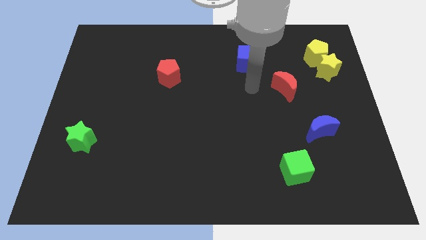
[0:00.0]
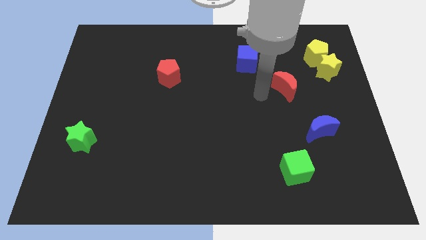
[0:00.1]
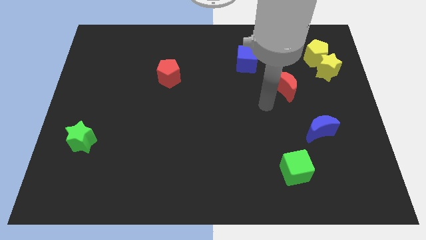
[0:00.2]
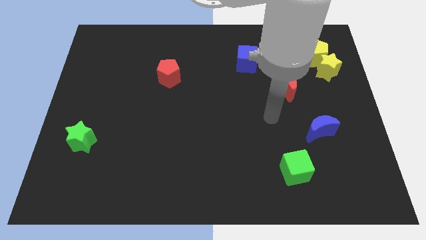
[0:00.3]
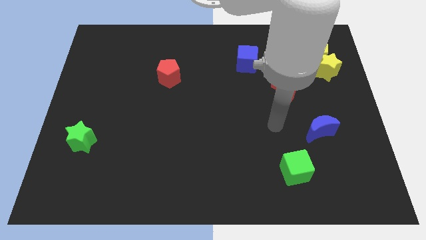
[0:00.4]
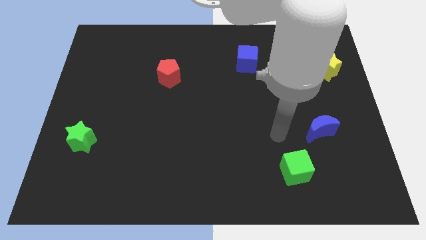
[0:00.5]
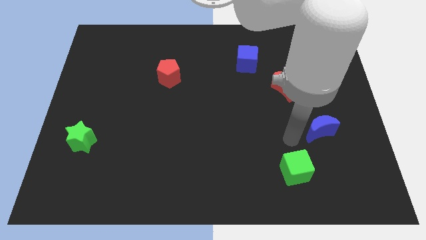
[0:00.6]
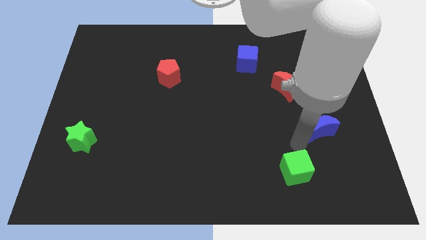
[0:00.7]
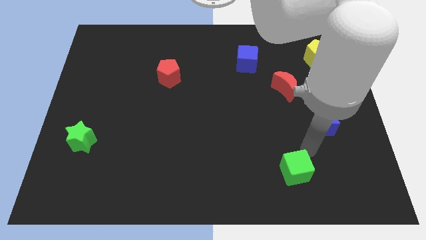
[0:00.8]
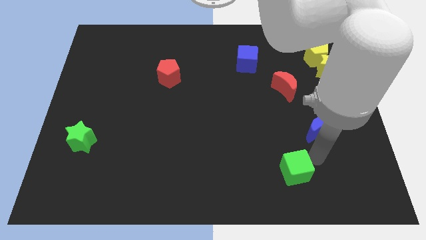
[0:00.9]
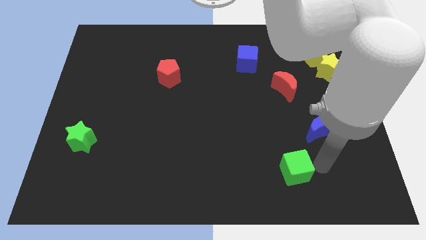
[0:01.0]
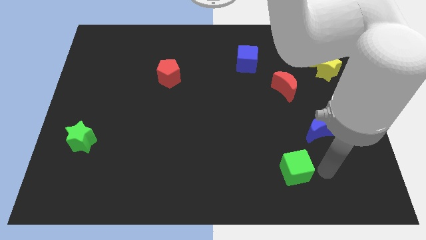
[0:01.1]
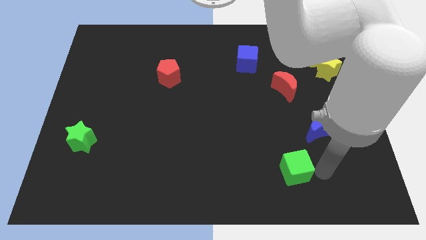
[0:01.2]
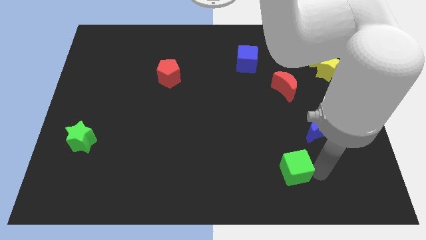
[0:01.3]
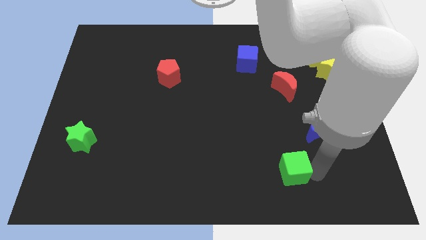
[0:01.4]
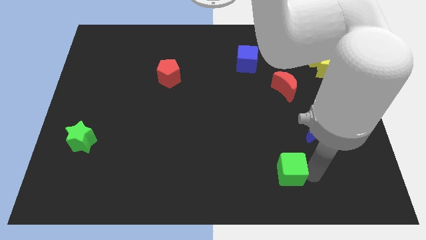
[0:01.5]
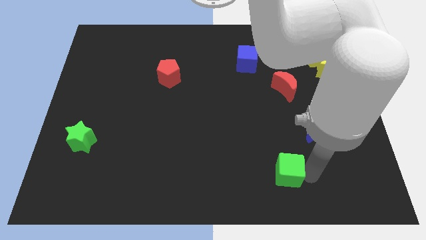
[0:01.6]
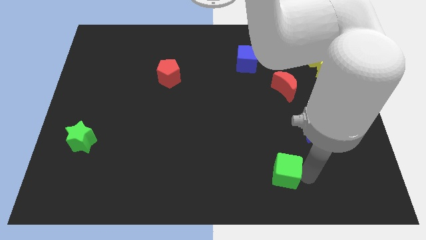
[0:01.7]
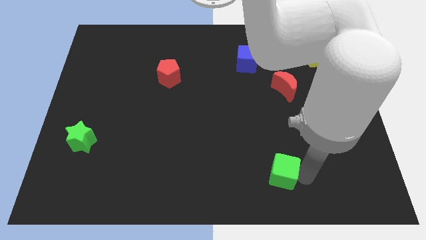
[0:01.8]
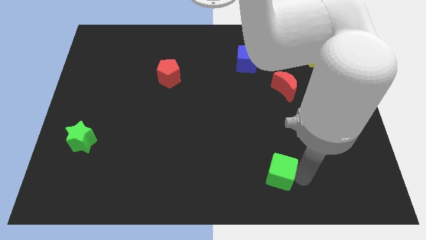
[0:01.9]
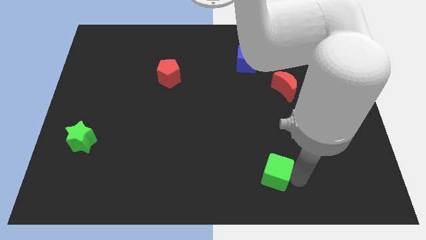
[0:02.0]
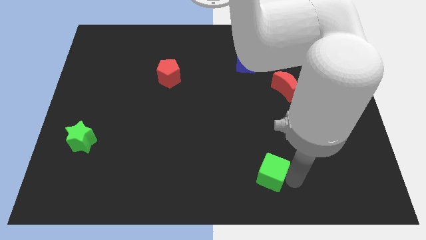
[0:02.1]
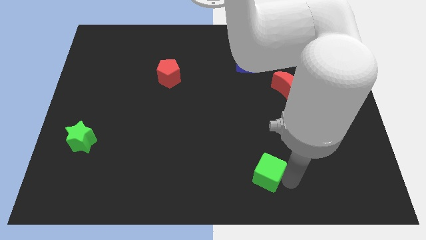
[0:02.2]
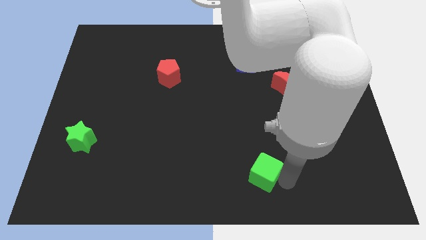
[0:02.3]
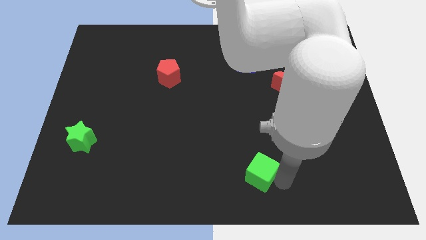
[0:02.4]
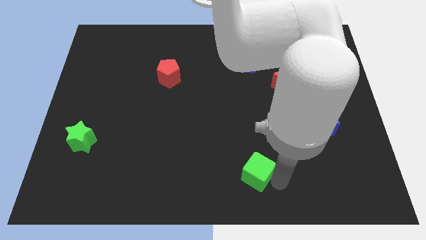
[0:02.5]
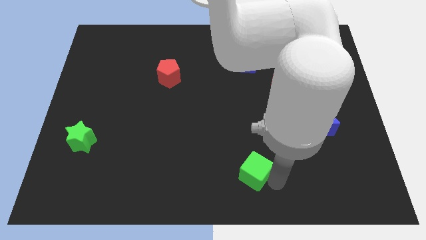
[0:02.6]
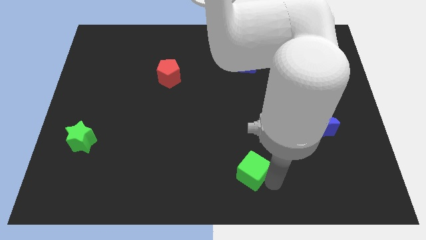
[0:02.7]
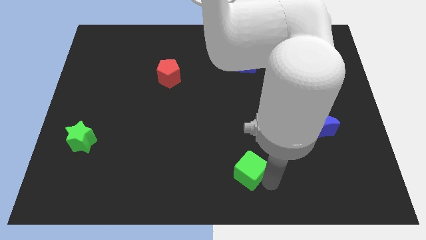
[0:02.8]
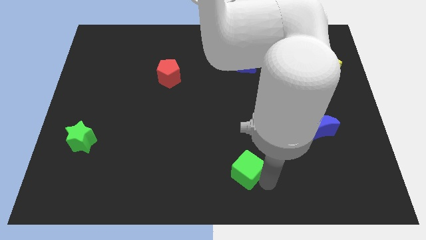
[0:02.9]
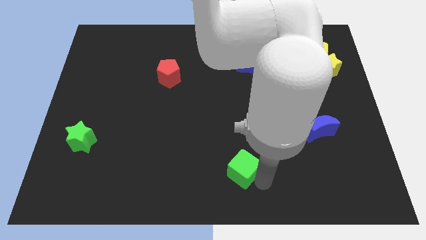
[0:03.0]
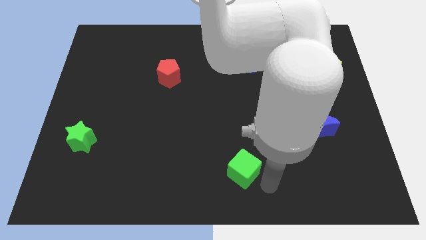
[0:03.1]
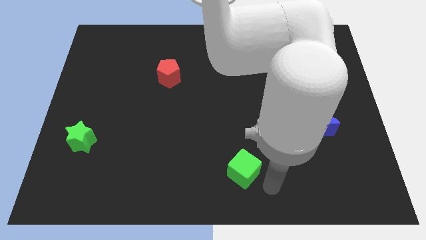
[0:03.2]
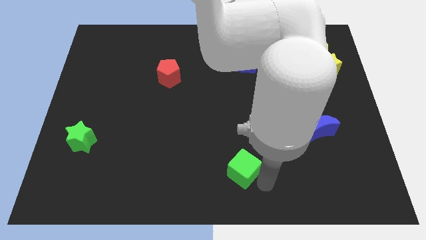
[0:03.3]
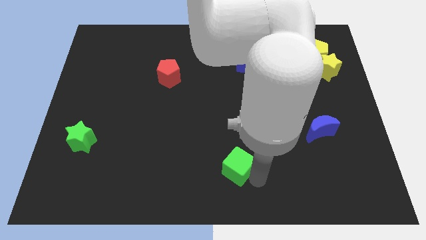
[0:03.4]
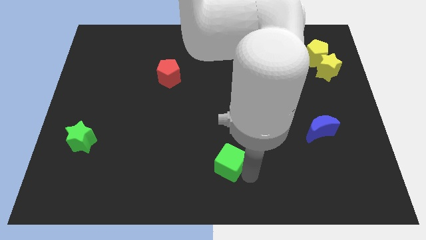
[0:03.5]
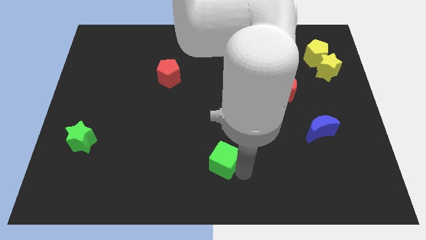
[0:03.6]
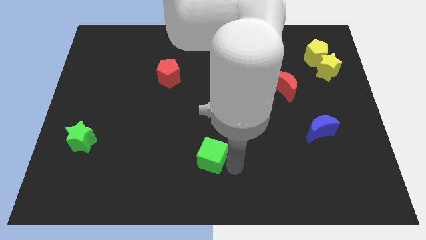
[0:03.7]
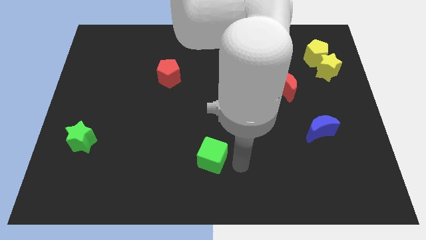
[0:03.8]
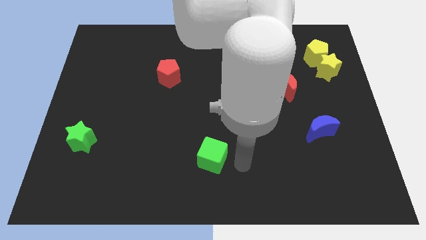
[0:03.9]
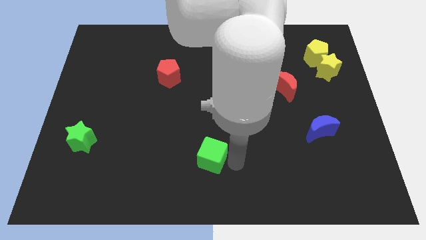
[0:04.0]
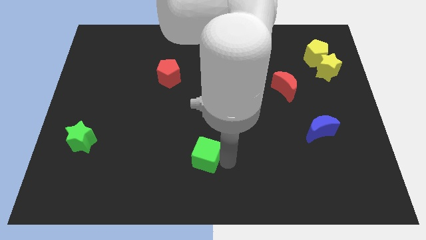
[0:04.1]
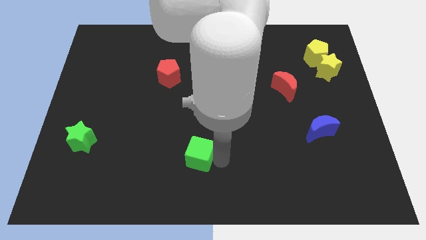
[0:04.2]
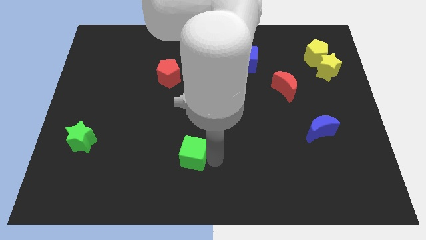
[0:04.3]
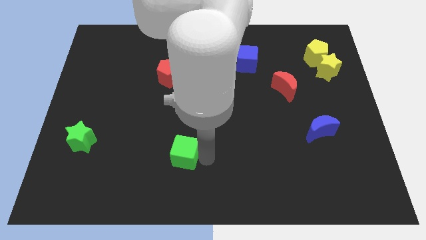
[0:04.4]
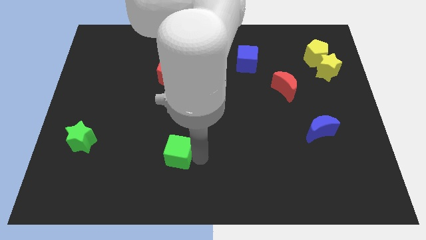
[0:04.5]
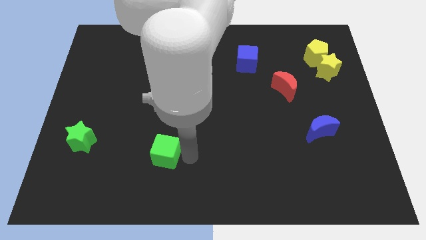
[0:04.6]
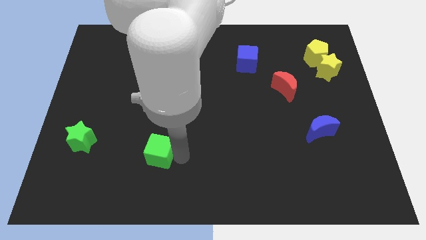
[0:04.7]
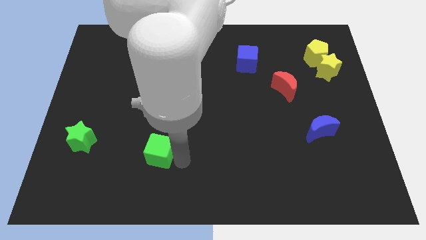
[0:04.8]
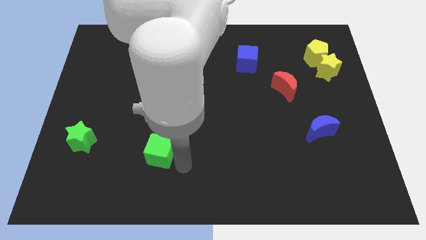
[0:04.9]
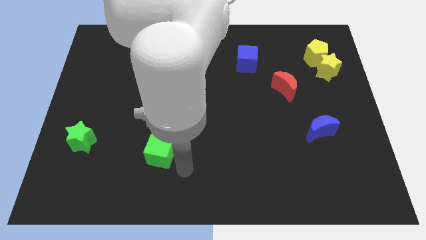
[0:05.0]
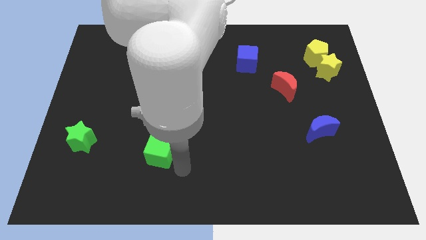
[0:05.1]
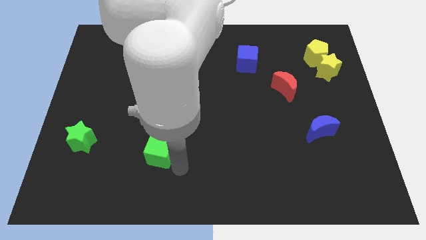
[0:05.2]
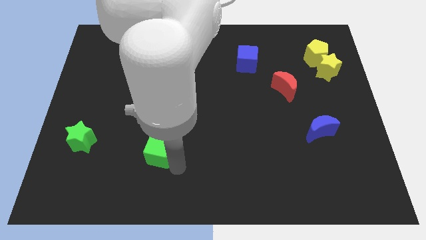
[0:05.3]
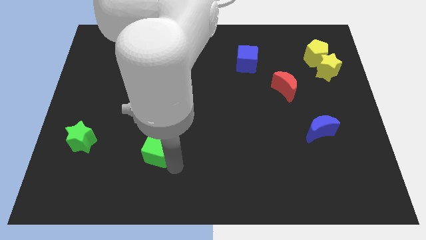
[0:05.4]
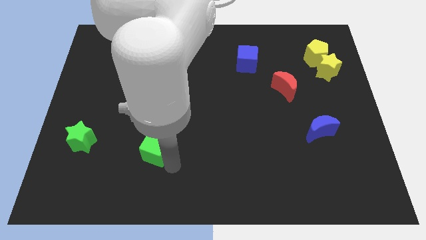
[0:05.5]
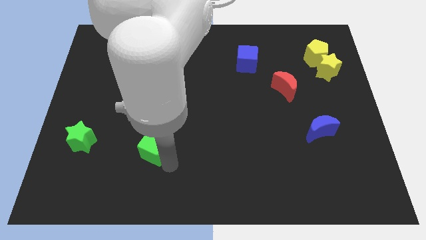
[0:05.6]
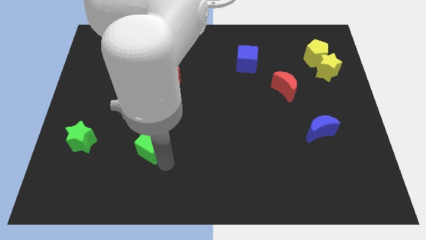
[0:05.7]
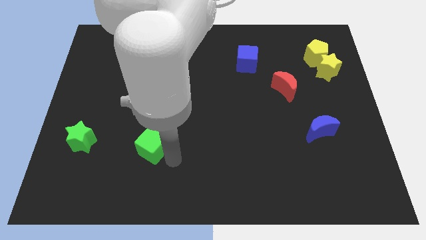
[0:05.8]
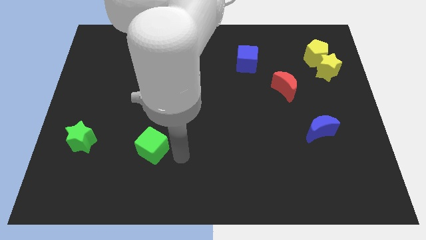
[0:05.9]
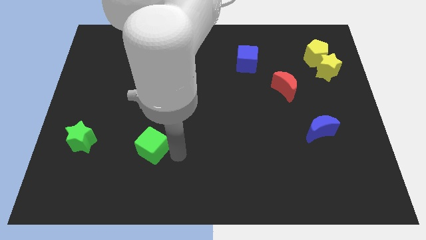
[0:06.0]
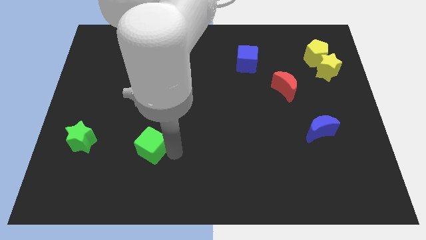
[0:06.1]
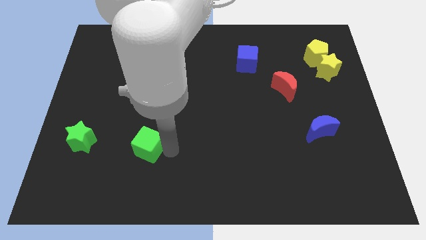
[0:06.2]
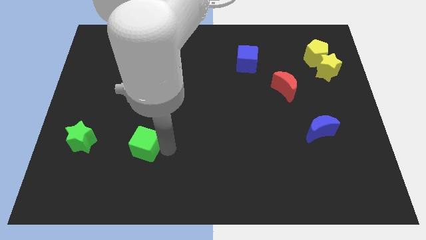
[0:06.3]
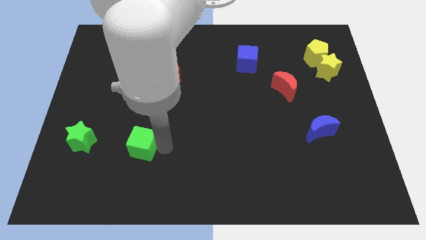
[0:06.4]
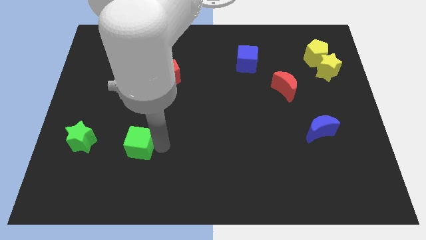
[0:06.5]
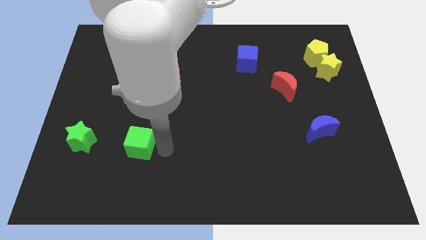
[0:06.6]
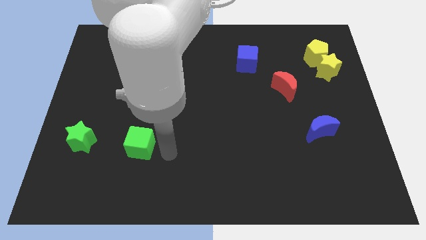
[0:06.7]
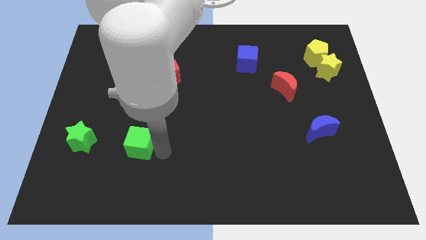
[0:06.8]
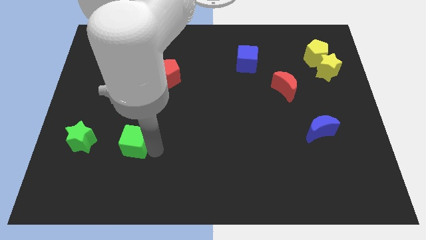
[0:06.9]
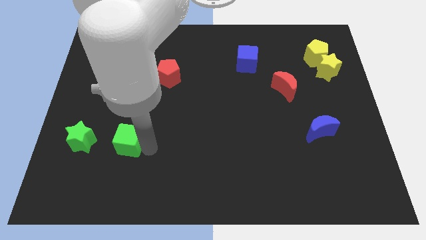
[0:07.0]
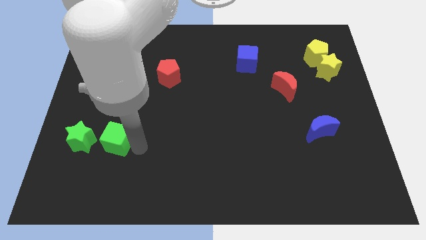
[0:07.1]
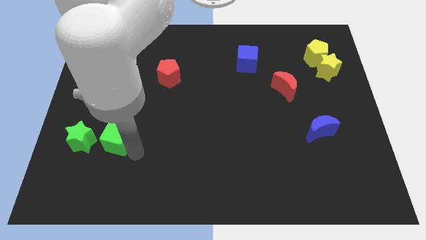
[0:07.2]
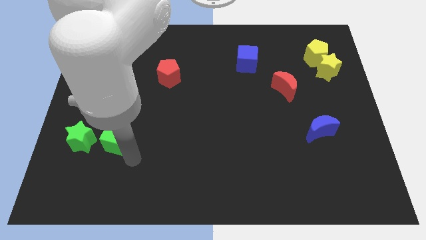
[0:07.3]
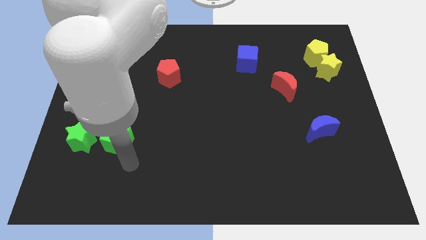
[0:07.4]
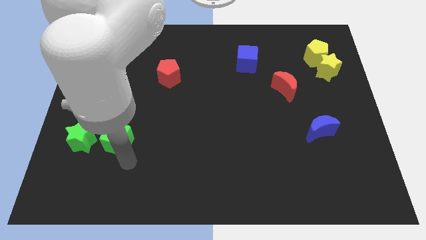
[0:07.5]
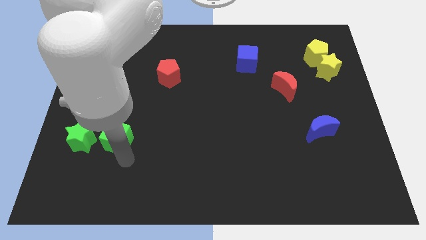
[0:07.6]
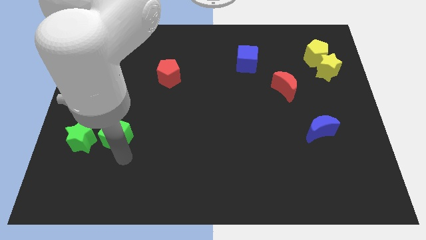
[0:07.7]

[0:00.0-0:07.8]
push the green cube diagonally up and to the right of the green star
